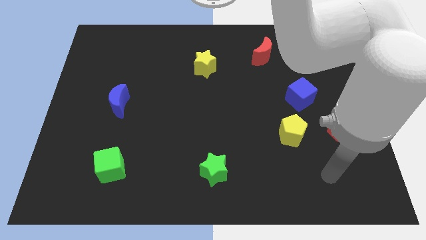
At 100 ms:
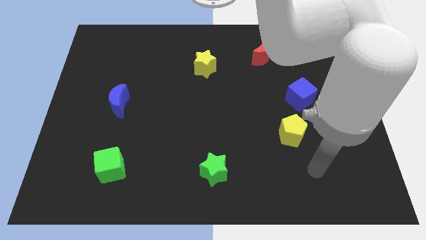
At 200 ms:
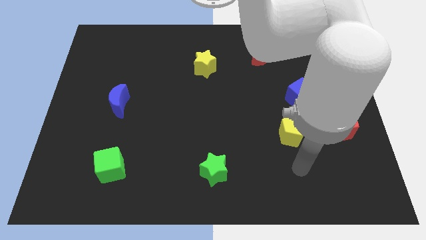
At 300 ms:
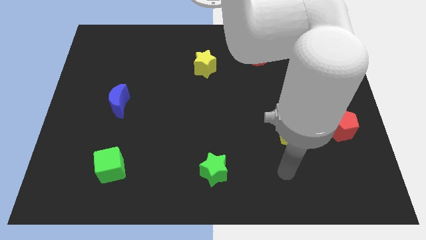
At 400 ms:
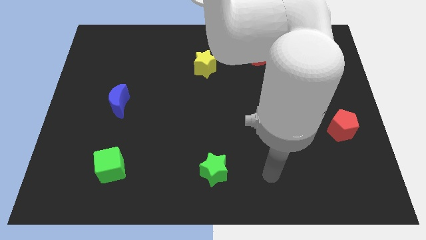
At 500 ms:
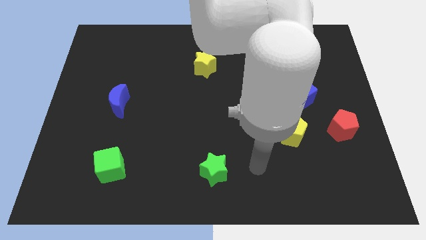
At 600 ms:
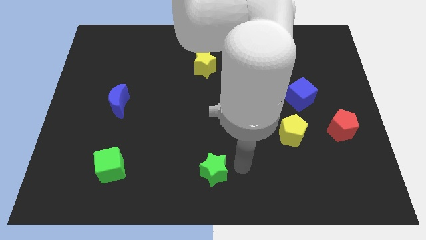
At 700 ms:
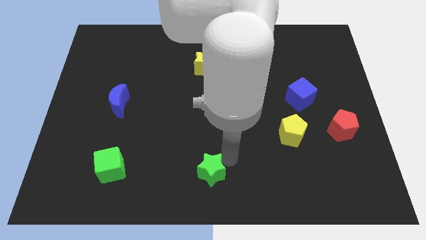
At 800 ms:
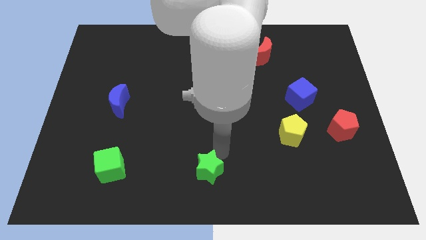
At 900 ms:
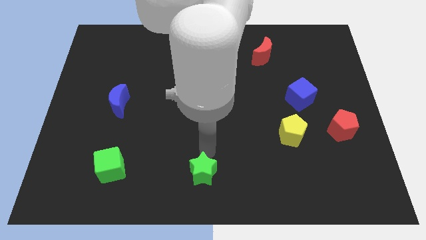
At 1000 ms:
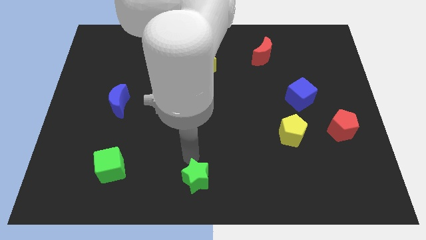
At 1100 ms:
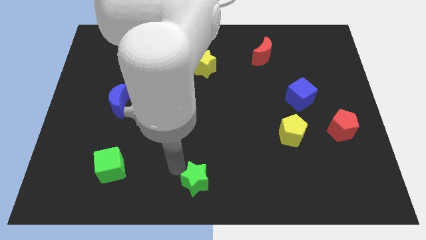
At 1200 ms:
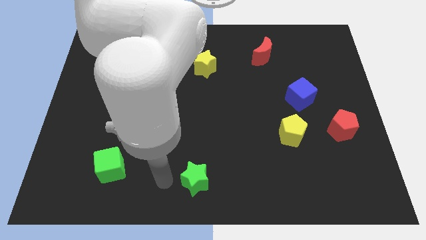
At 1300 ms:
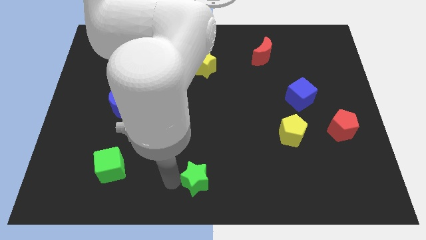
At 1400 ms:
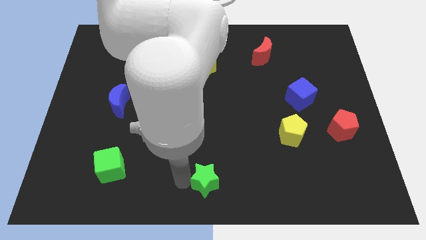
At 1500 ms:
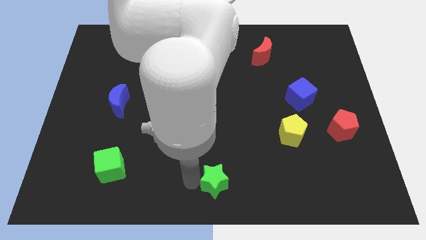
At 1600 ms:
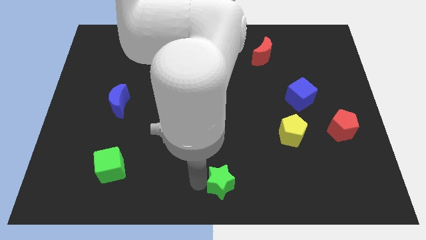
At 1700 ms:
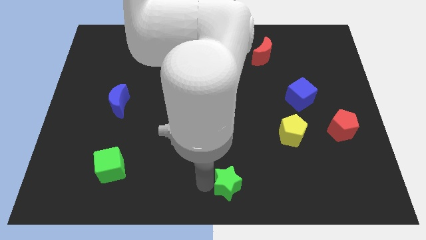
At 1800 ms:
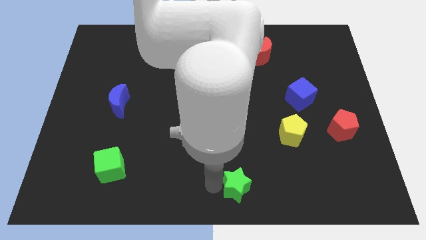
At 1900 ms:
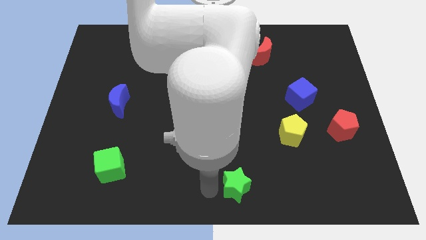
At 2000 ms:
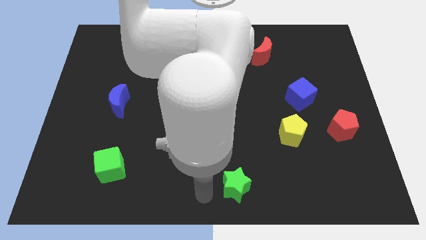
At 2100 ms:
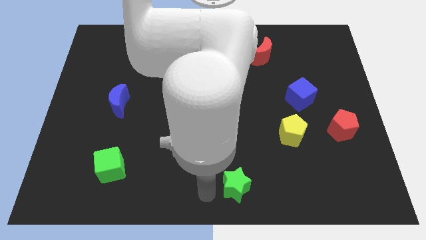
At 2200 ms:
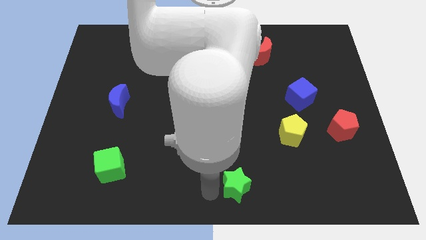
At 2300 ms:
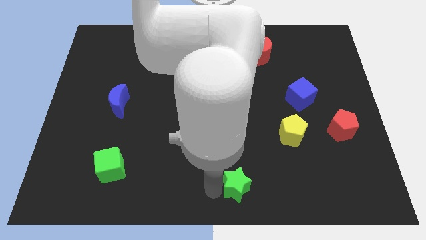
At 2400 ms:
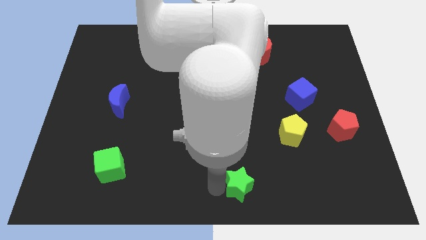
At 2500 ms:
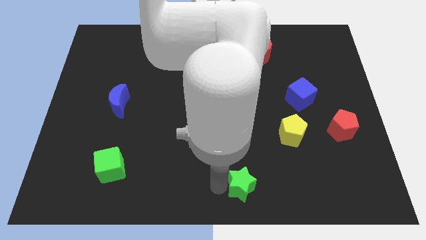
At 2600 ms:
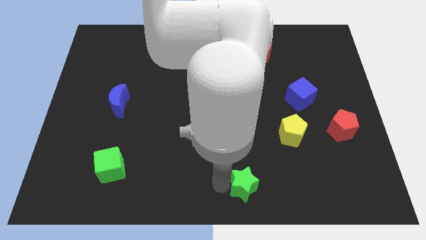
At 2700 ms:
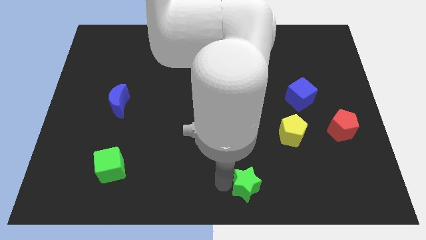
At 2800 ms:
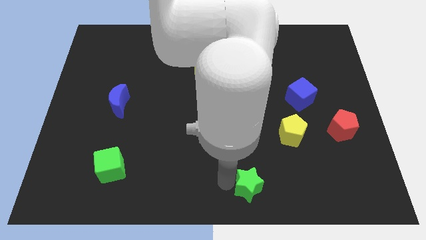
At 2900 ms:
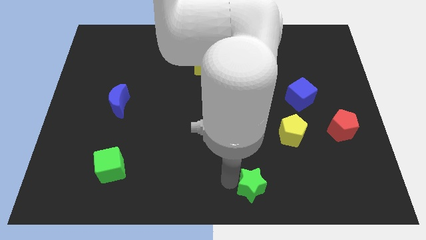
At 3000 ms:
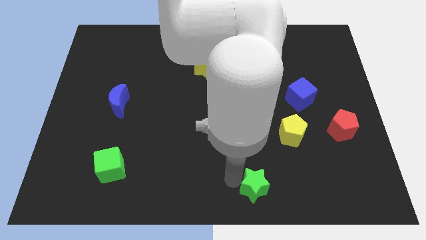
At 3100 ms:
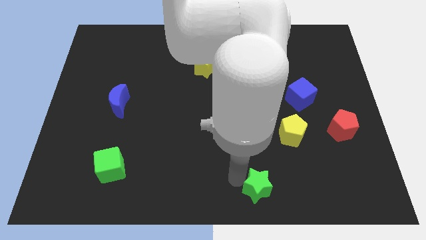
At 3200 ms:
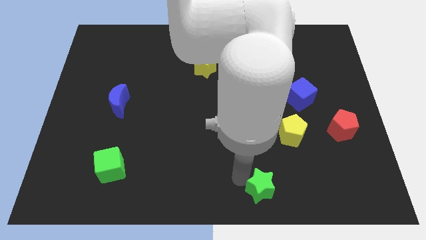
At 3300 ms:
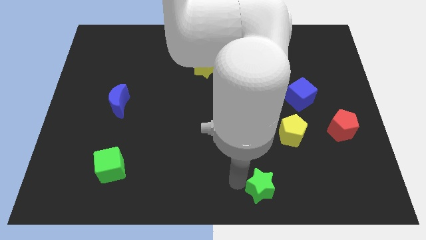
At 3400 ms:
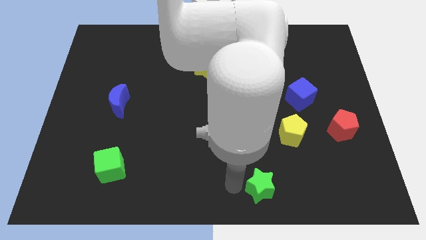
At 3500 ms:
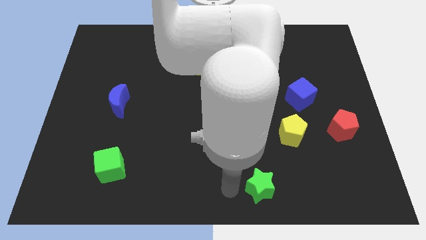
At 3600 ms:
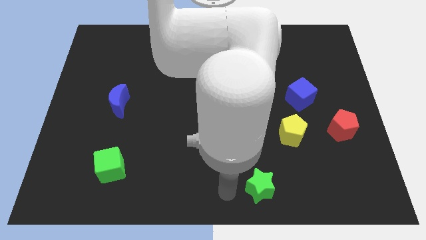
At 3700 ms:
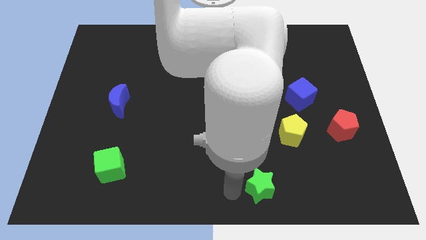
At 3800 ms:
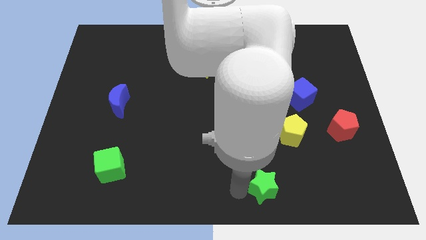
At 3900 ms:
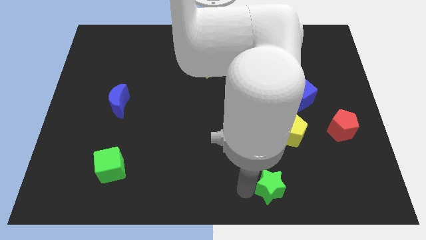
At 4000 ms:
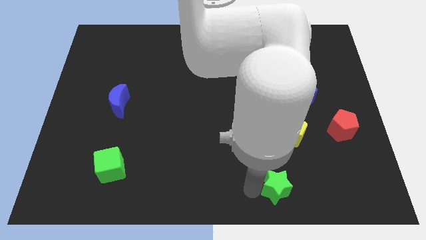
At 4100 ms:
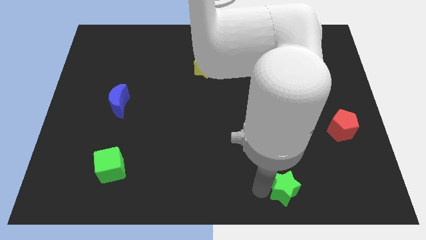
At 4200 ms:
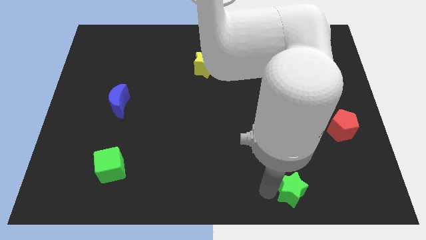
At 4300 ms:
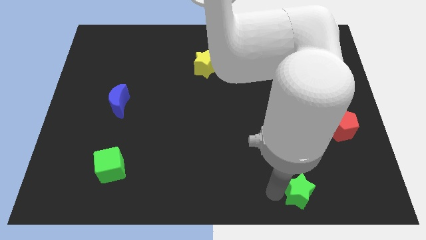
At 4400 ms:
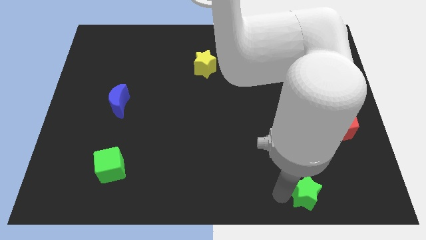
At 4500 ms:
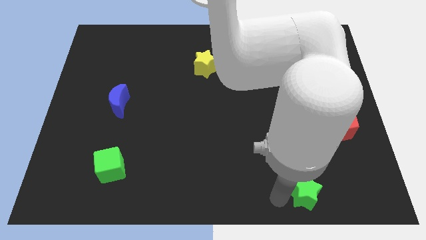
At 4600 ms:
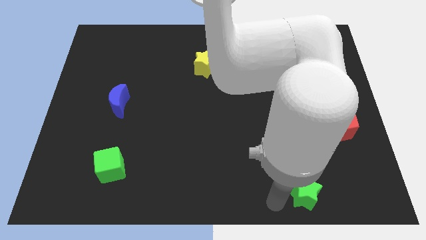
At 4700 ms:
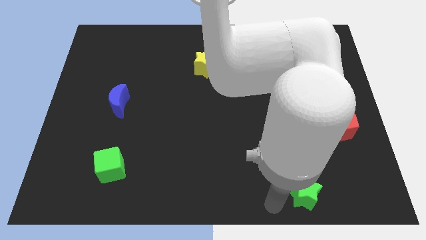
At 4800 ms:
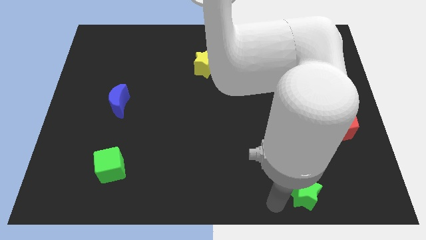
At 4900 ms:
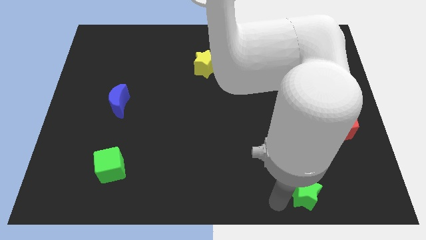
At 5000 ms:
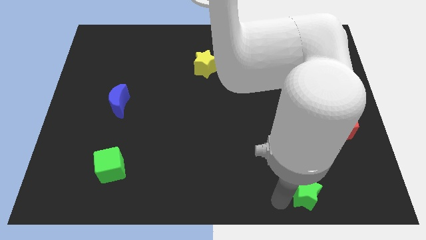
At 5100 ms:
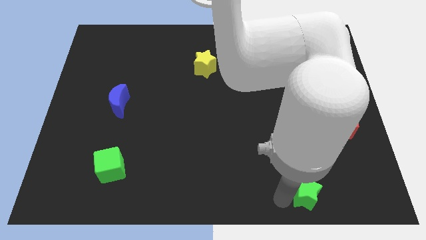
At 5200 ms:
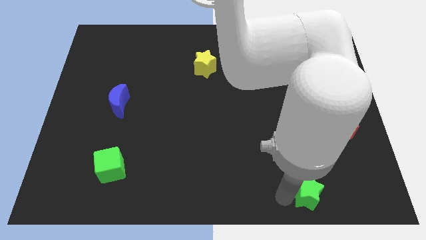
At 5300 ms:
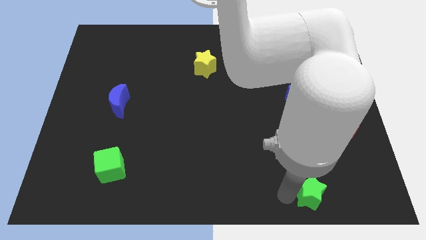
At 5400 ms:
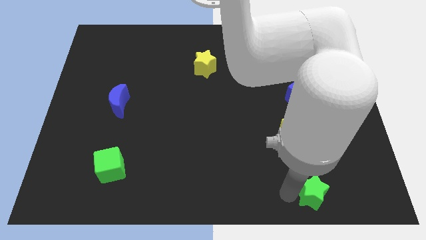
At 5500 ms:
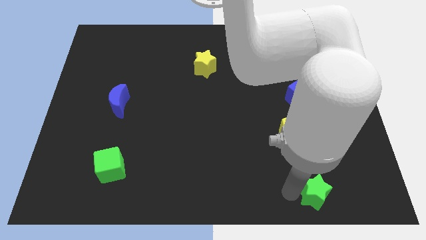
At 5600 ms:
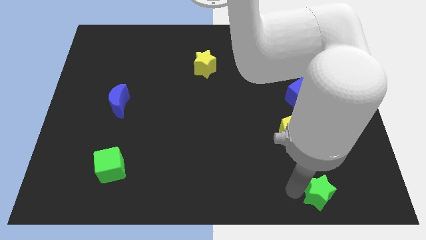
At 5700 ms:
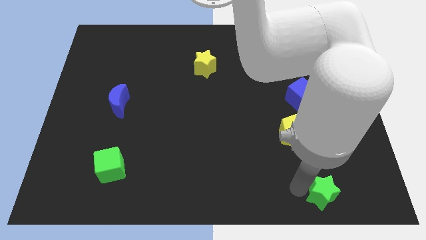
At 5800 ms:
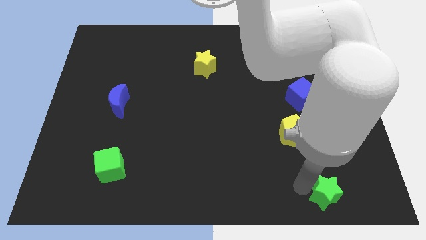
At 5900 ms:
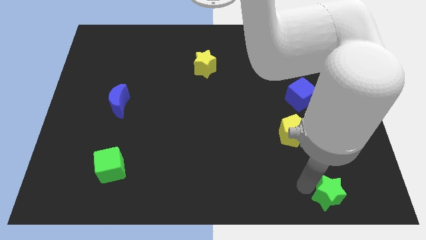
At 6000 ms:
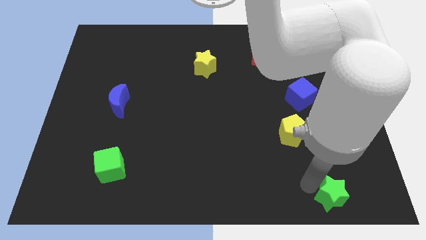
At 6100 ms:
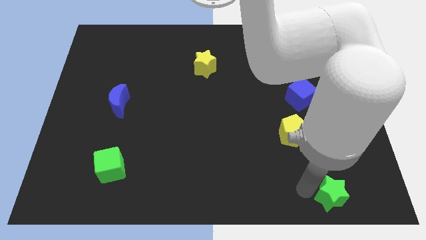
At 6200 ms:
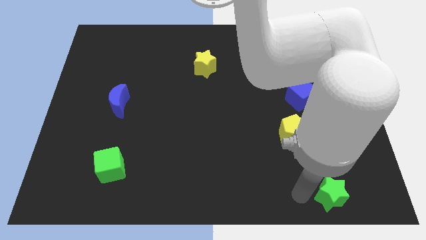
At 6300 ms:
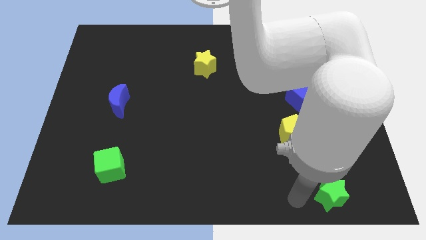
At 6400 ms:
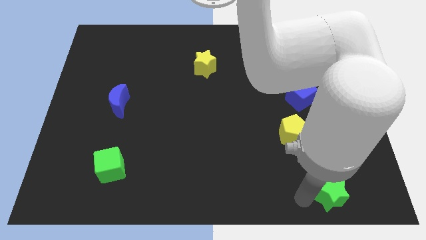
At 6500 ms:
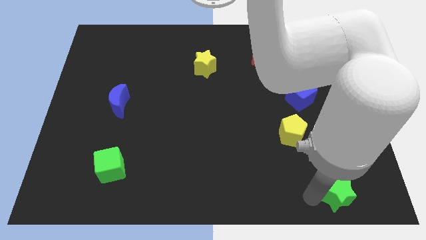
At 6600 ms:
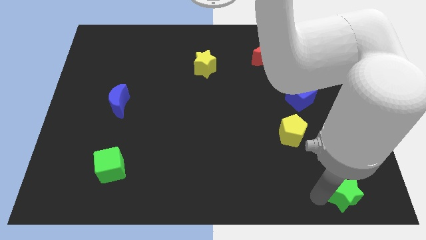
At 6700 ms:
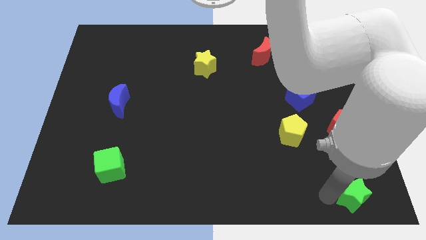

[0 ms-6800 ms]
slide the green star to the bottom right corner
